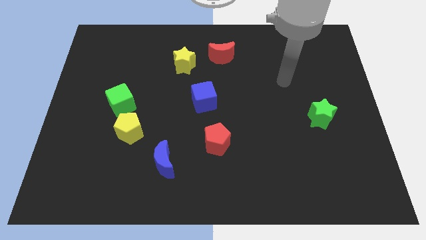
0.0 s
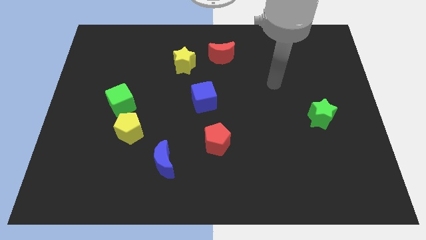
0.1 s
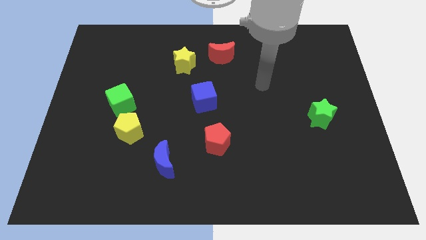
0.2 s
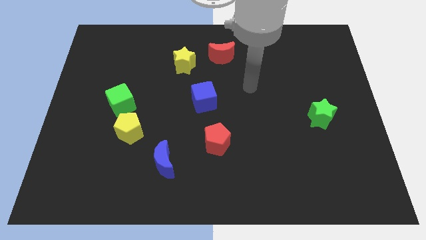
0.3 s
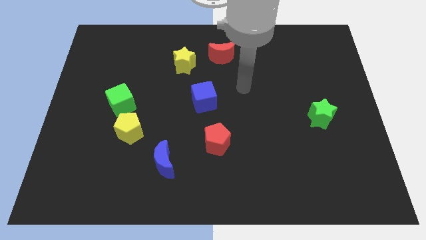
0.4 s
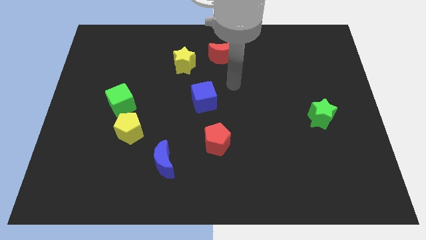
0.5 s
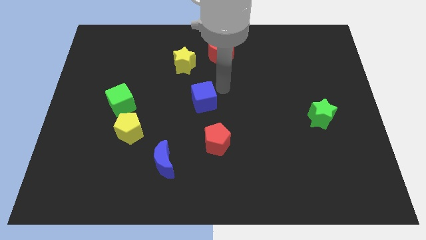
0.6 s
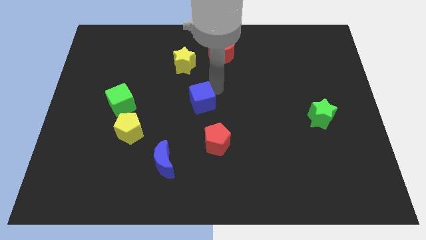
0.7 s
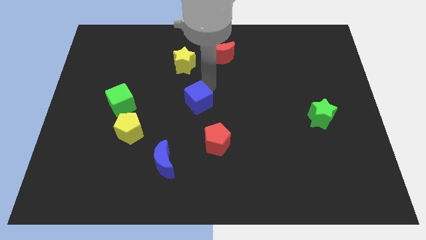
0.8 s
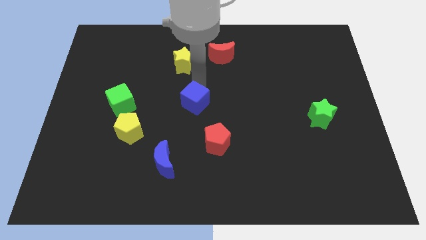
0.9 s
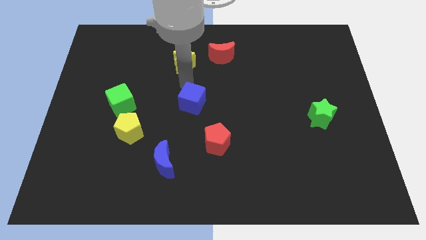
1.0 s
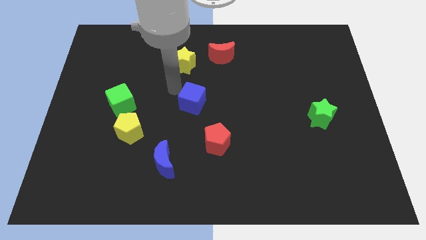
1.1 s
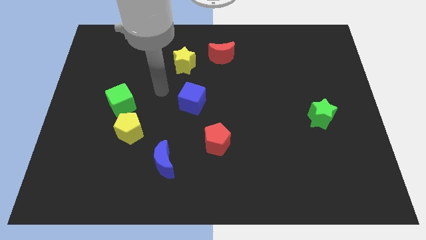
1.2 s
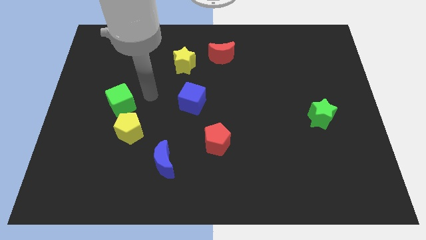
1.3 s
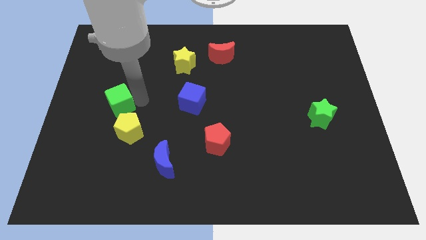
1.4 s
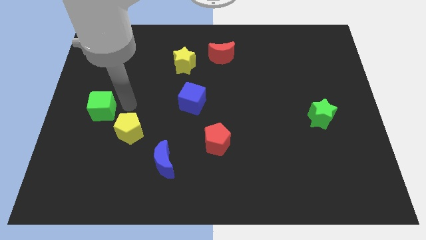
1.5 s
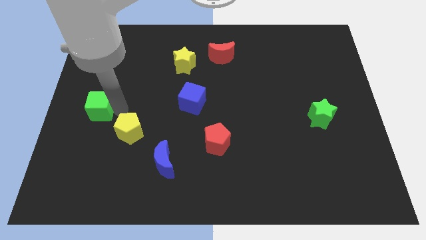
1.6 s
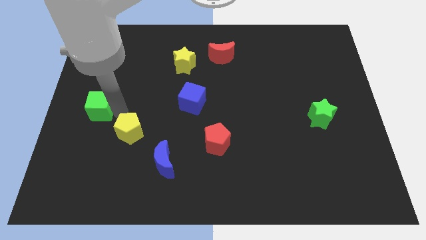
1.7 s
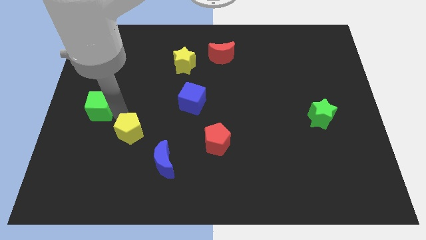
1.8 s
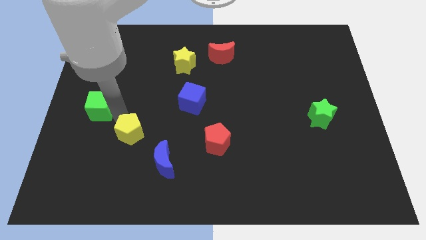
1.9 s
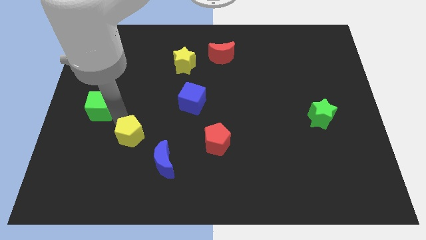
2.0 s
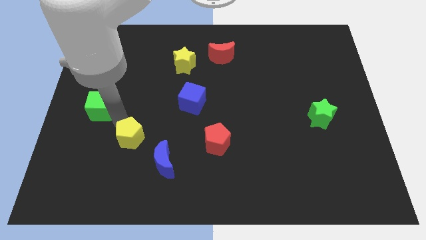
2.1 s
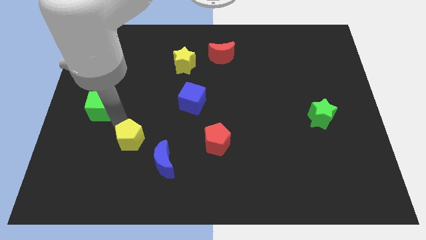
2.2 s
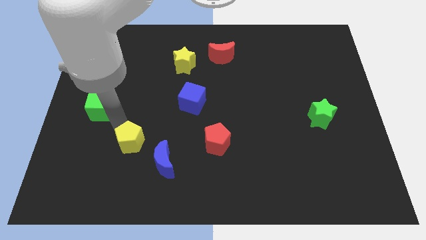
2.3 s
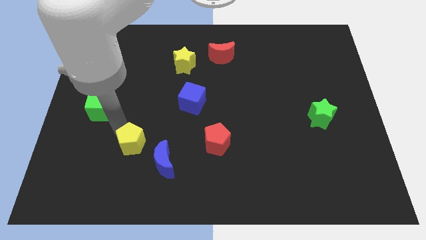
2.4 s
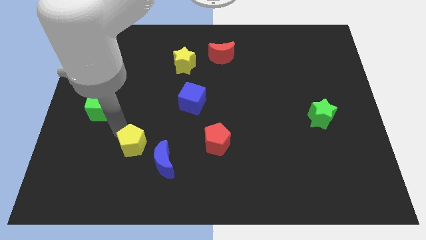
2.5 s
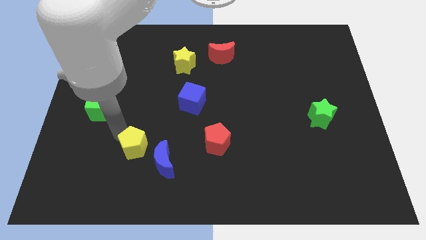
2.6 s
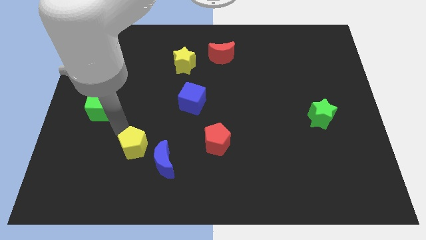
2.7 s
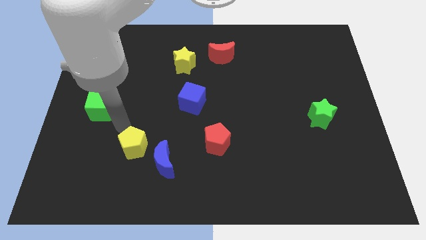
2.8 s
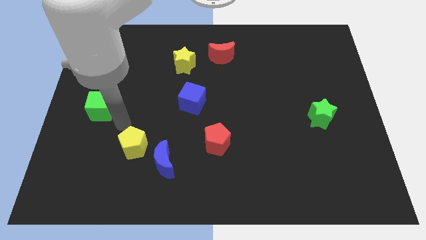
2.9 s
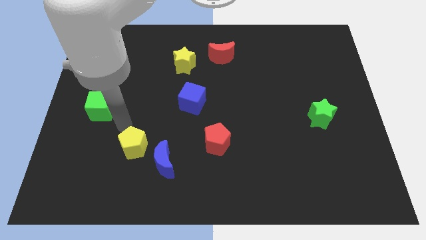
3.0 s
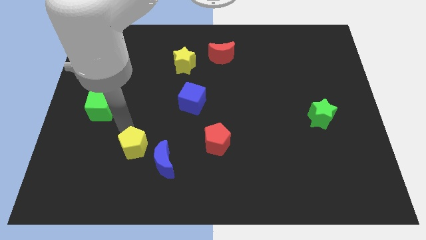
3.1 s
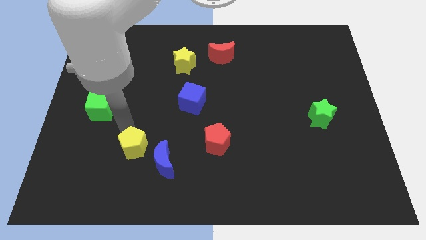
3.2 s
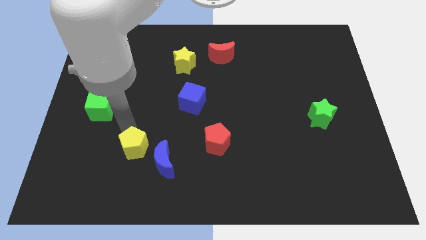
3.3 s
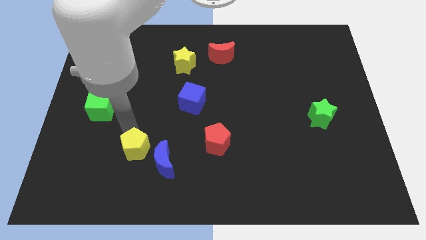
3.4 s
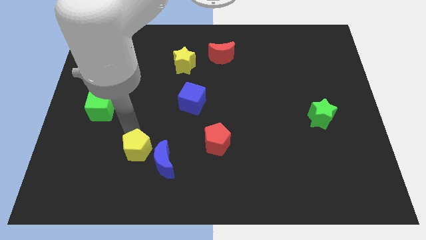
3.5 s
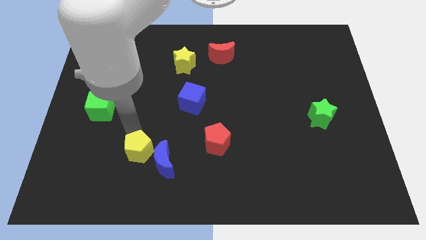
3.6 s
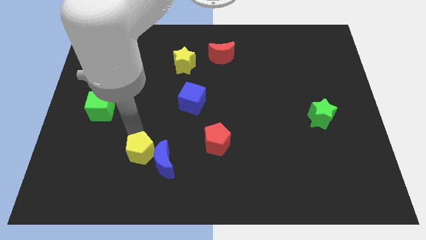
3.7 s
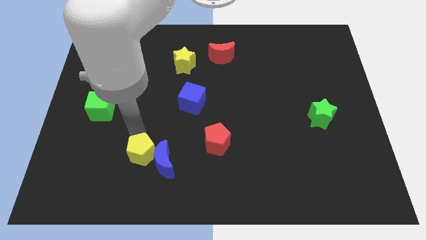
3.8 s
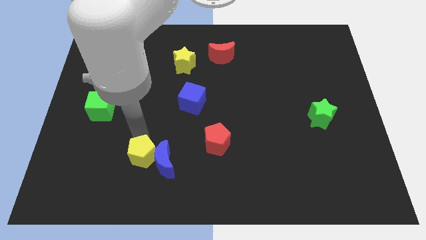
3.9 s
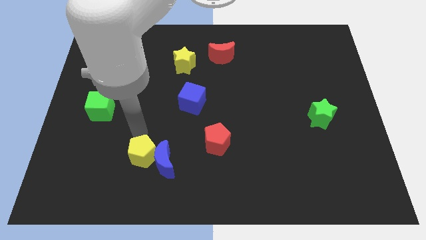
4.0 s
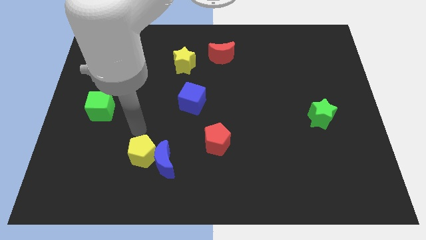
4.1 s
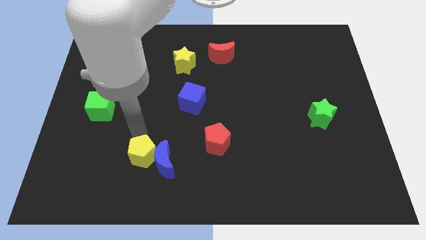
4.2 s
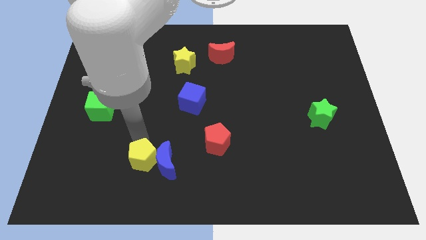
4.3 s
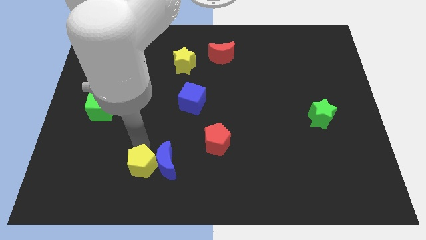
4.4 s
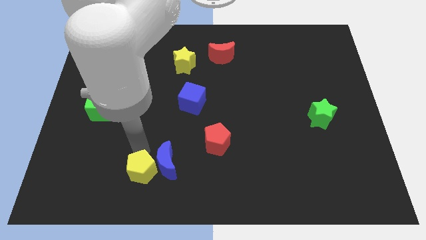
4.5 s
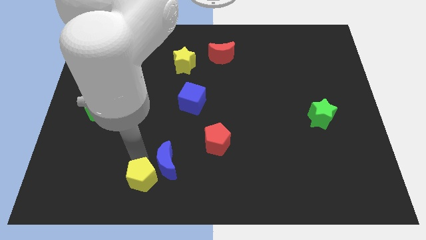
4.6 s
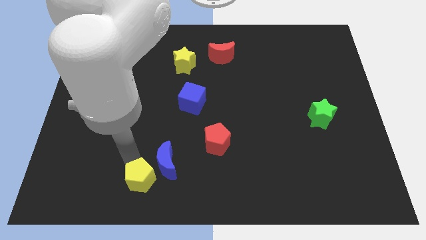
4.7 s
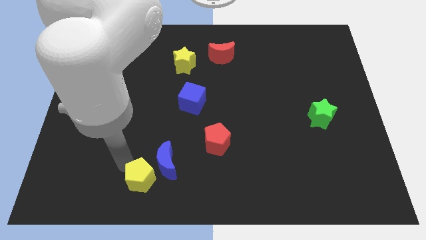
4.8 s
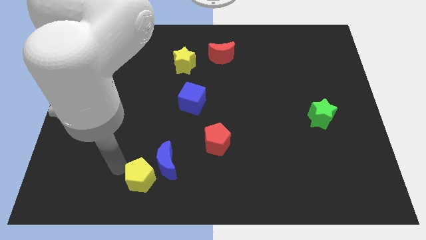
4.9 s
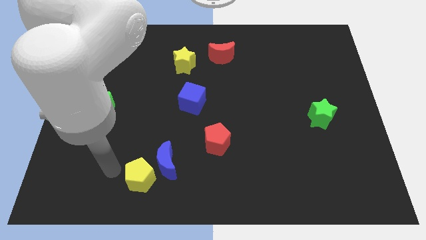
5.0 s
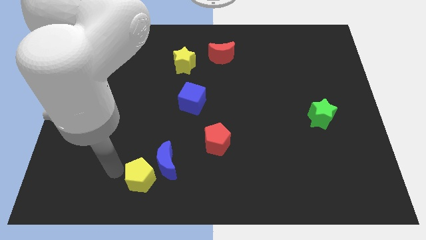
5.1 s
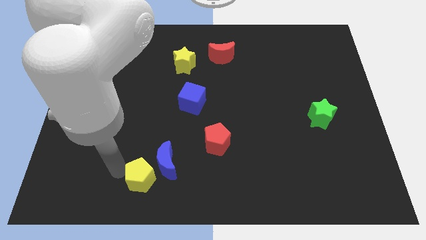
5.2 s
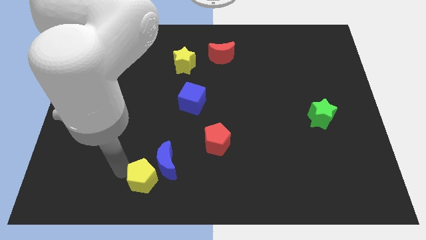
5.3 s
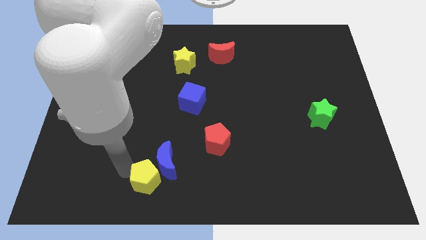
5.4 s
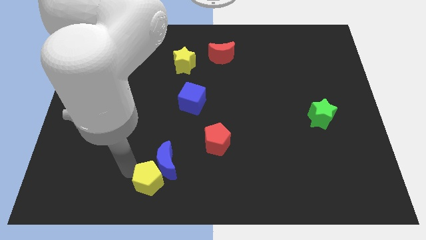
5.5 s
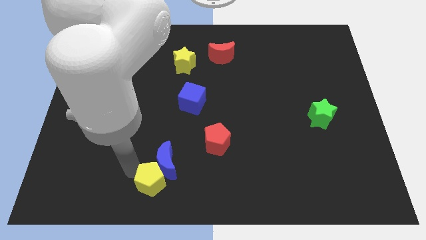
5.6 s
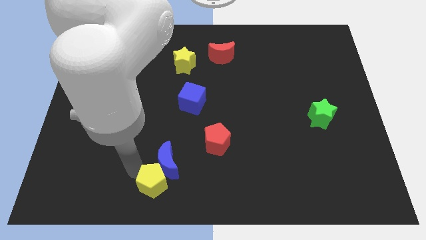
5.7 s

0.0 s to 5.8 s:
move the yellow pentagon to the bottom side
